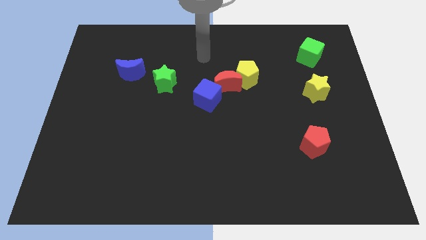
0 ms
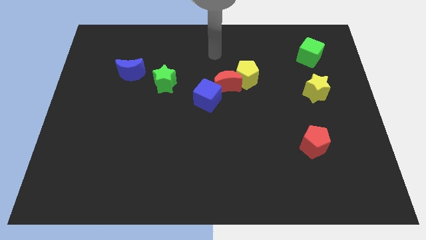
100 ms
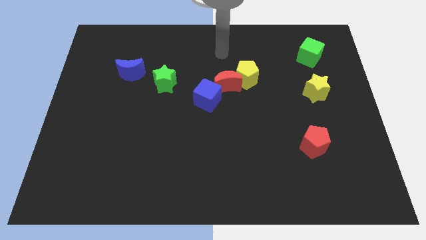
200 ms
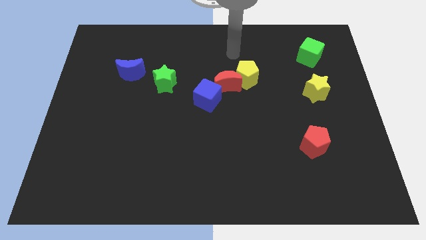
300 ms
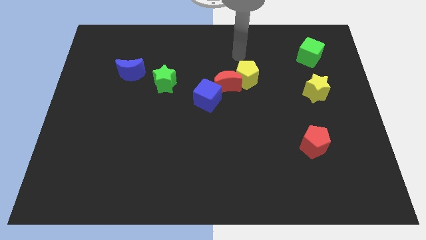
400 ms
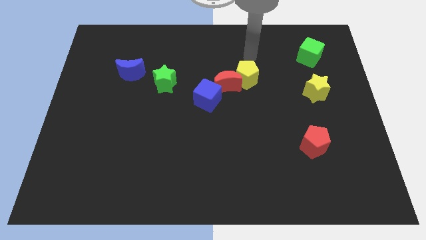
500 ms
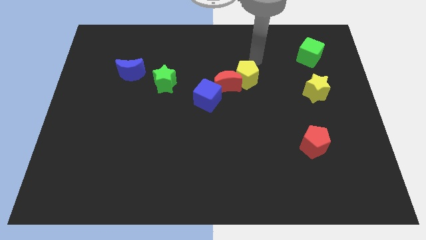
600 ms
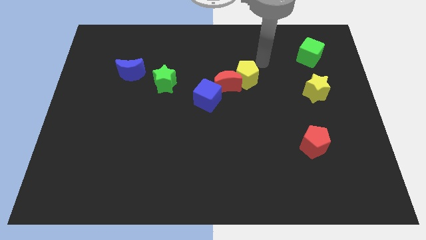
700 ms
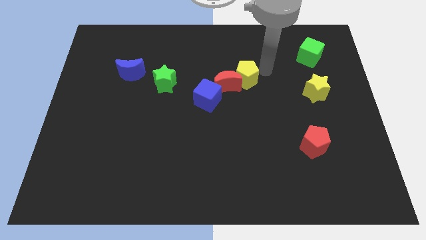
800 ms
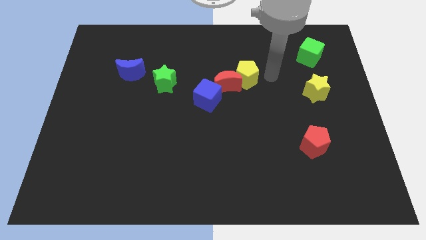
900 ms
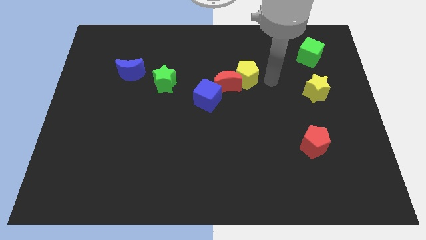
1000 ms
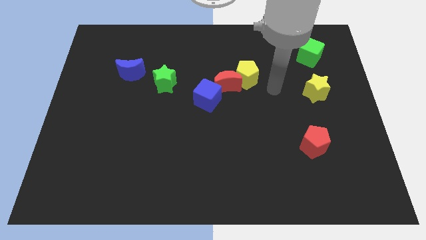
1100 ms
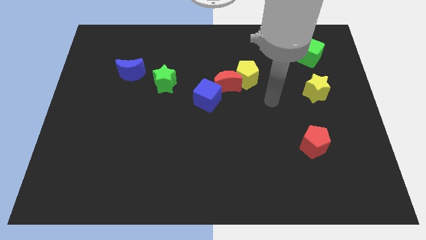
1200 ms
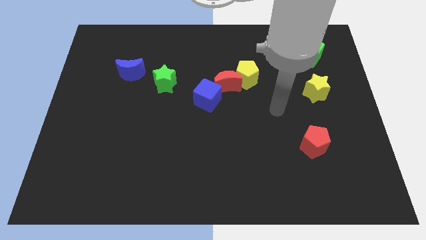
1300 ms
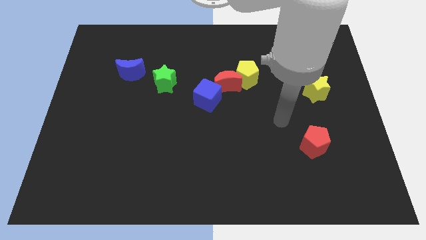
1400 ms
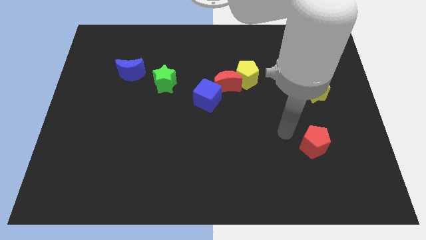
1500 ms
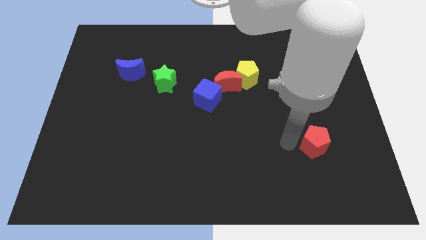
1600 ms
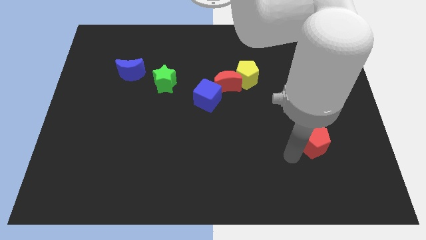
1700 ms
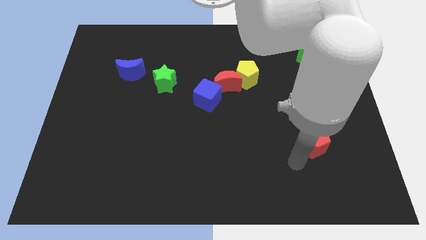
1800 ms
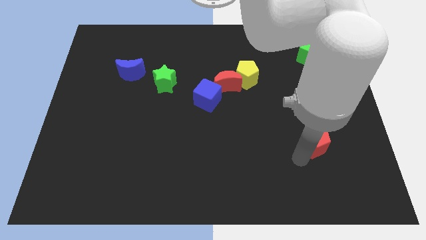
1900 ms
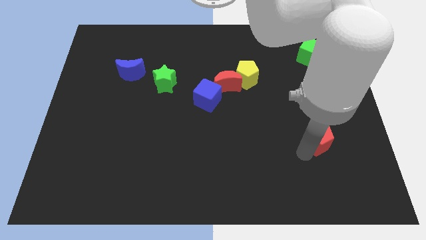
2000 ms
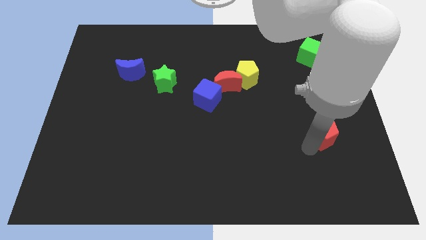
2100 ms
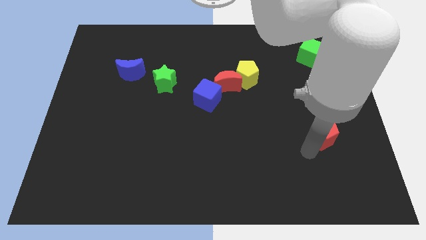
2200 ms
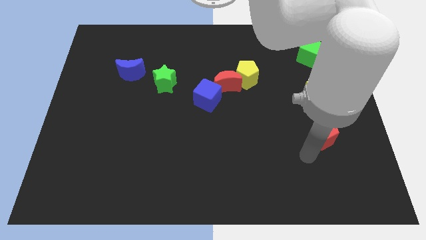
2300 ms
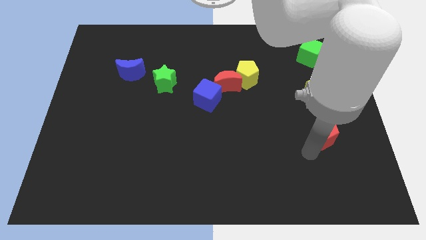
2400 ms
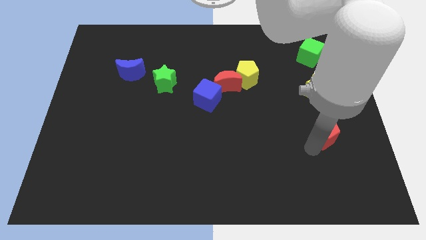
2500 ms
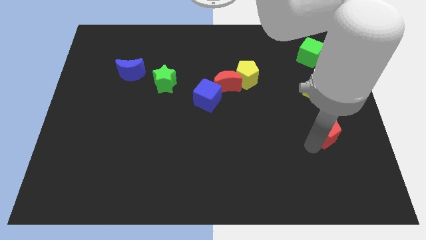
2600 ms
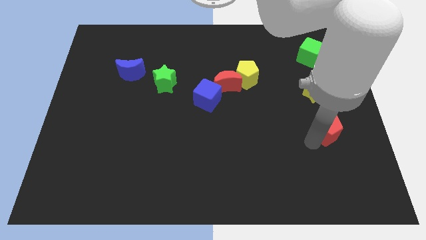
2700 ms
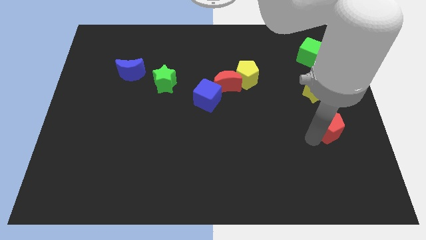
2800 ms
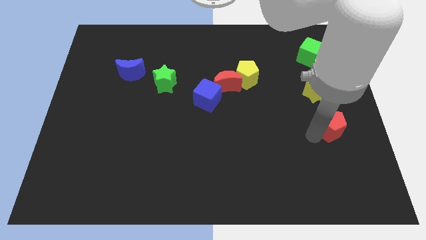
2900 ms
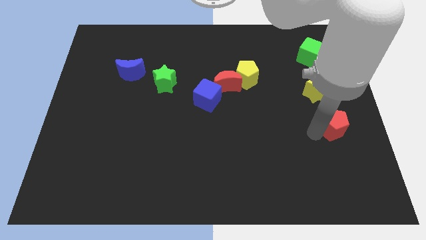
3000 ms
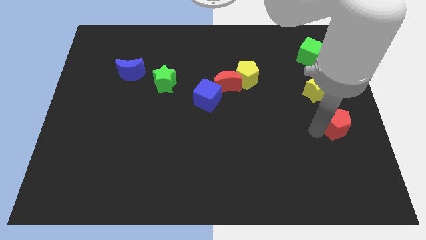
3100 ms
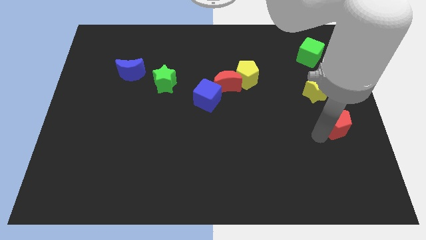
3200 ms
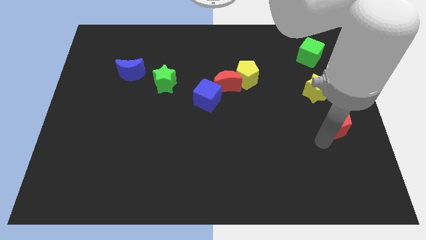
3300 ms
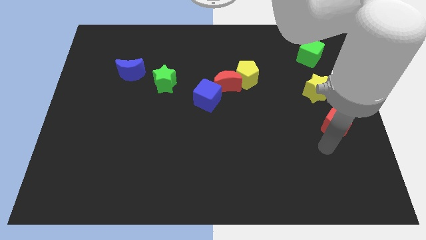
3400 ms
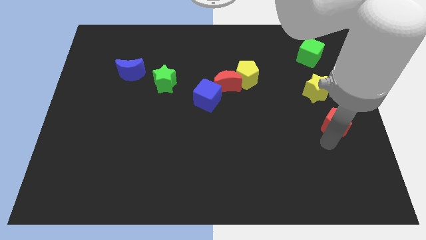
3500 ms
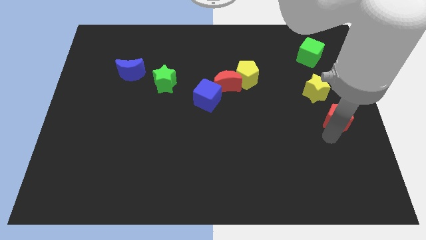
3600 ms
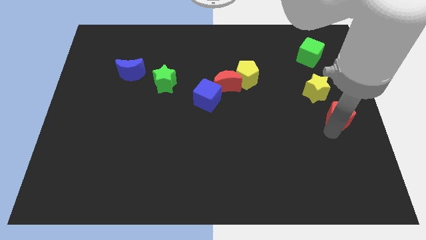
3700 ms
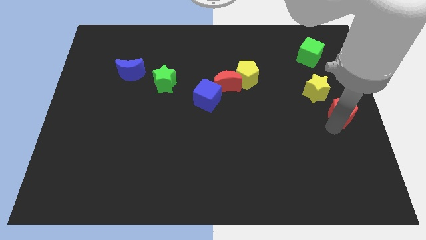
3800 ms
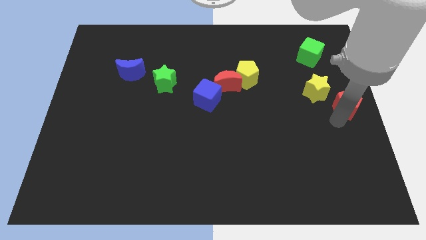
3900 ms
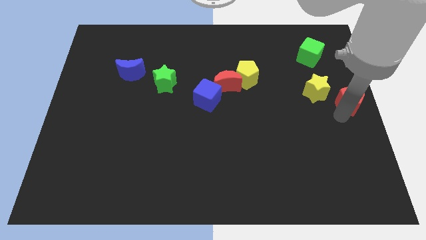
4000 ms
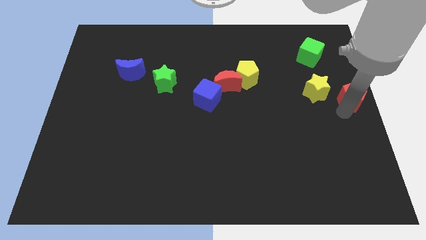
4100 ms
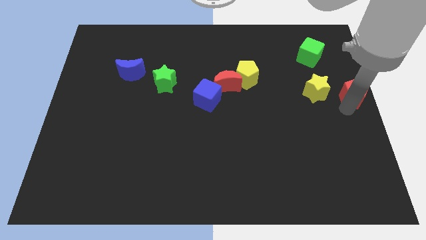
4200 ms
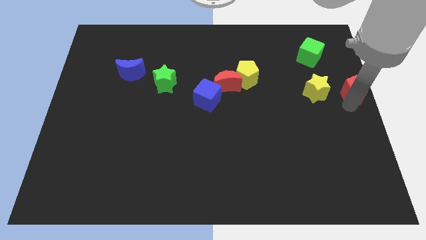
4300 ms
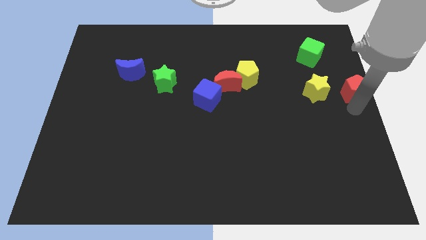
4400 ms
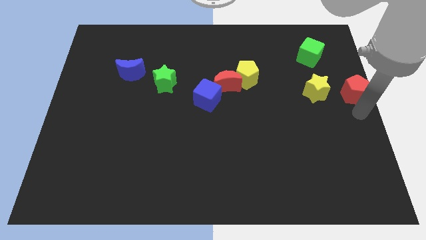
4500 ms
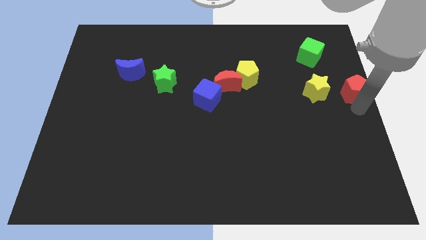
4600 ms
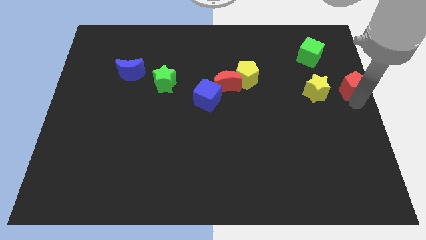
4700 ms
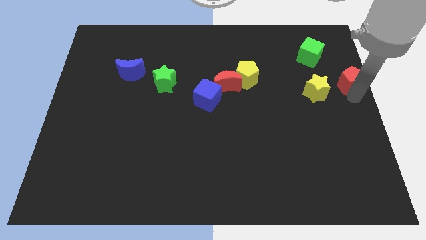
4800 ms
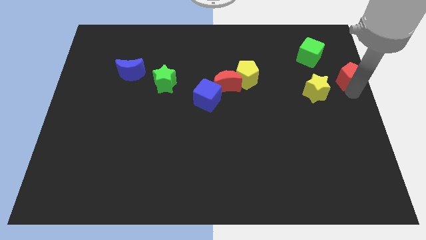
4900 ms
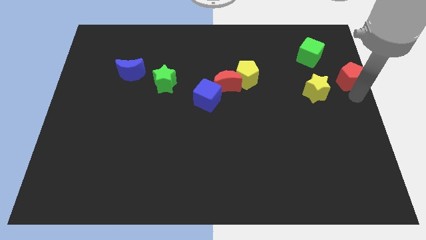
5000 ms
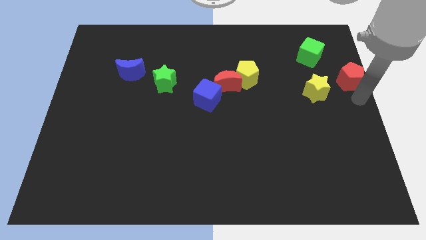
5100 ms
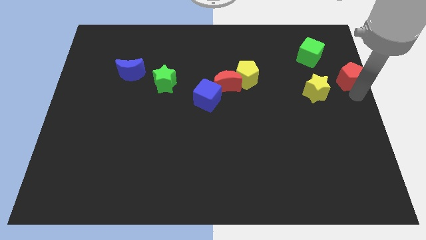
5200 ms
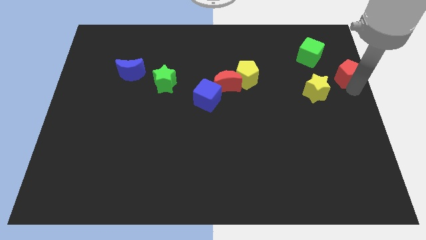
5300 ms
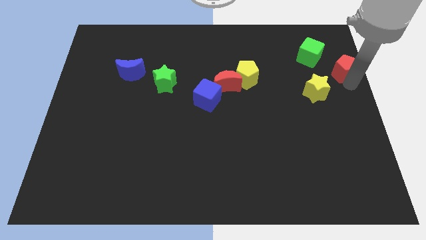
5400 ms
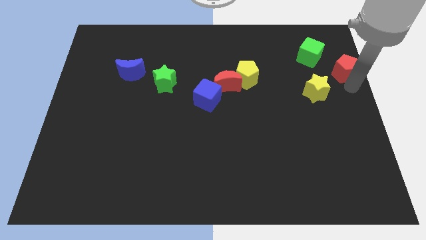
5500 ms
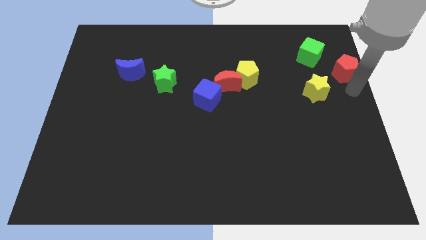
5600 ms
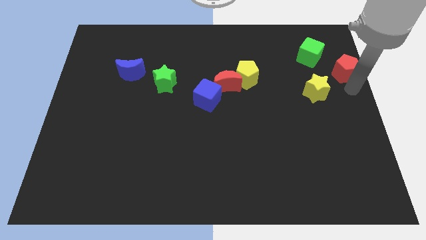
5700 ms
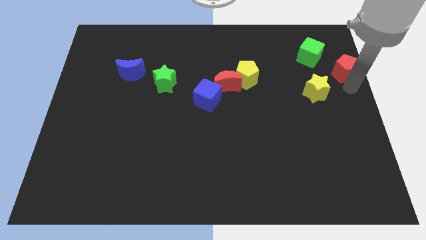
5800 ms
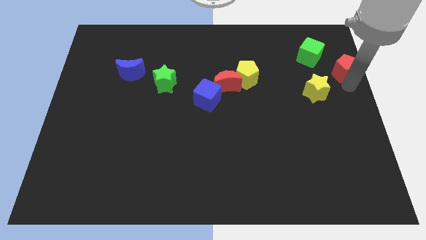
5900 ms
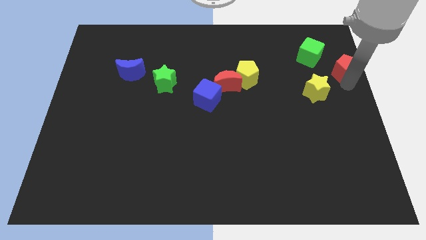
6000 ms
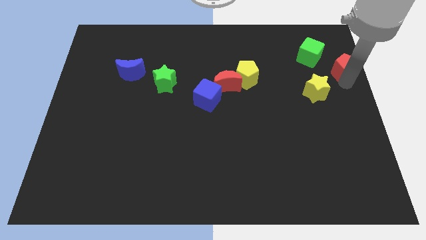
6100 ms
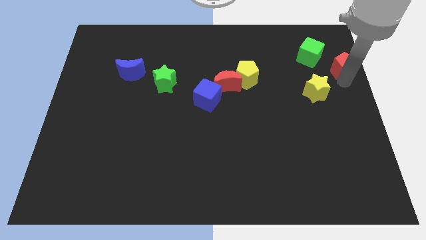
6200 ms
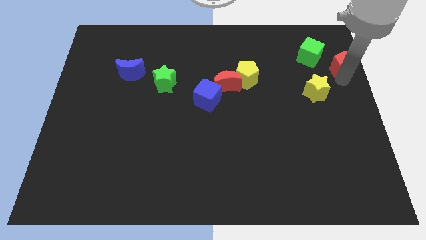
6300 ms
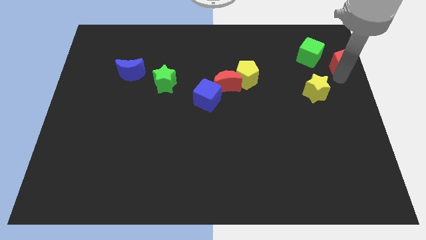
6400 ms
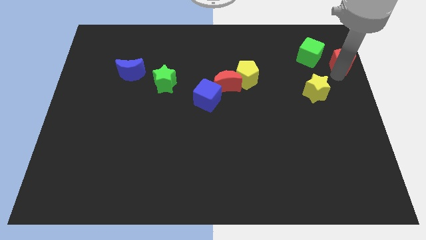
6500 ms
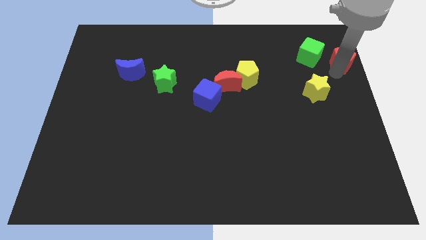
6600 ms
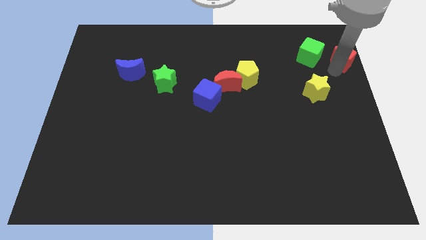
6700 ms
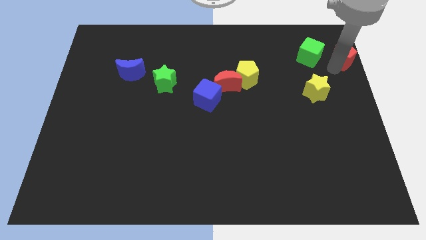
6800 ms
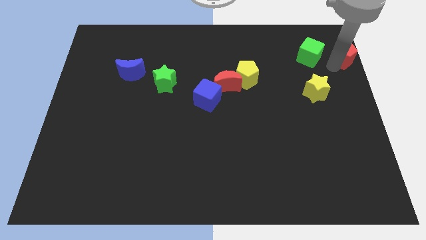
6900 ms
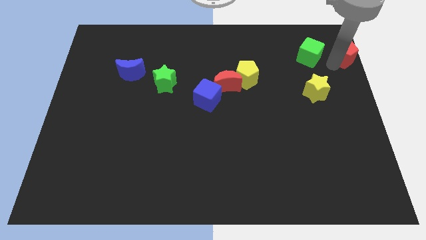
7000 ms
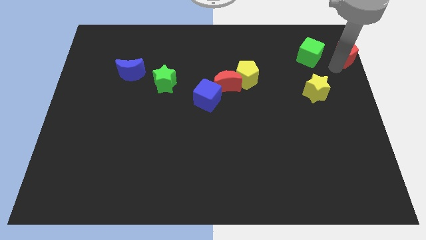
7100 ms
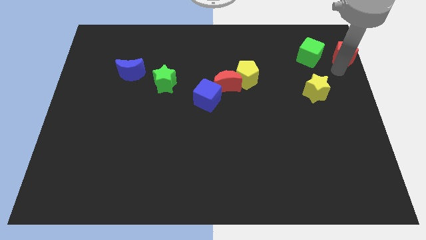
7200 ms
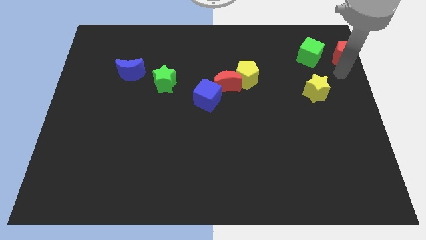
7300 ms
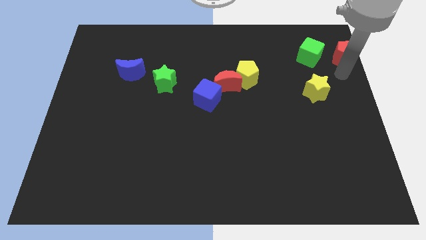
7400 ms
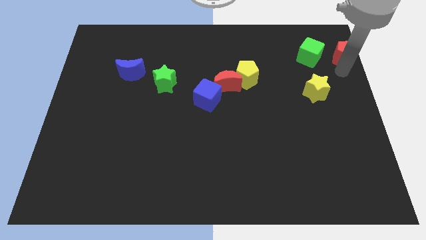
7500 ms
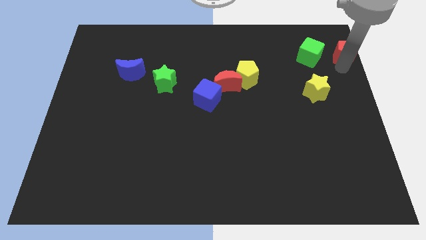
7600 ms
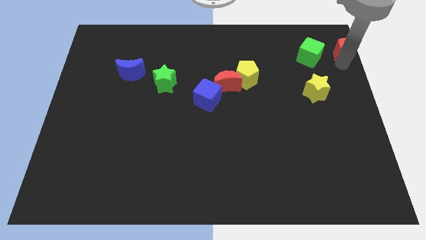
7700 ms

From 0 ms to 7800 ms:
push the red pentagon to the top right corner
